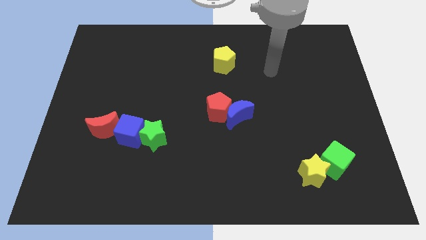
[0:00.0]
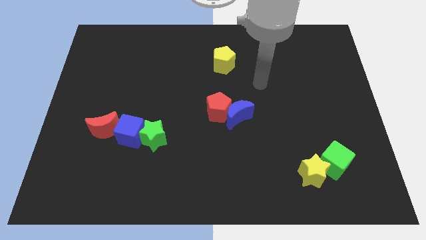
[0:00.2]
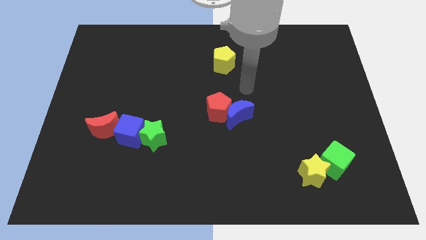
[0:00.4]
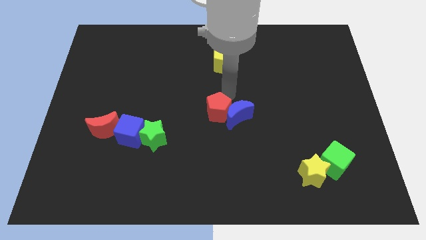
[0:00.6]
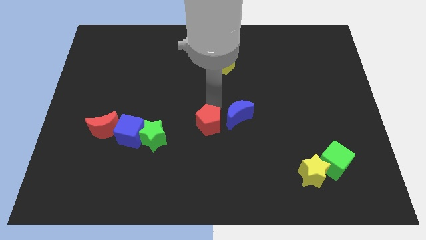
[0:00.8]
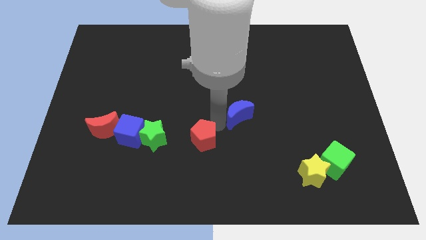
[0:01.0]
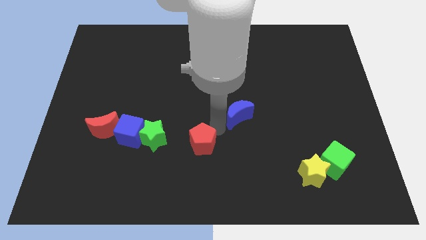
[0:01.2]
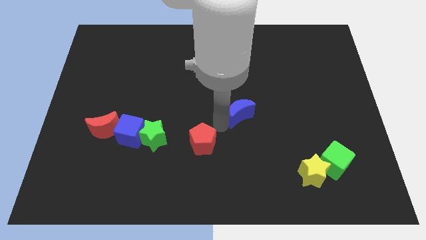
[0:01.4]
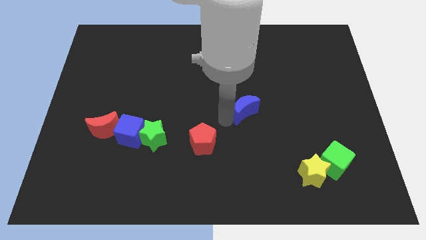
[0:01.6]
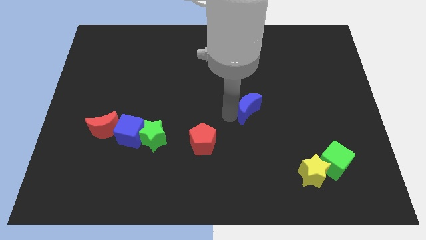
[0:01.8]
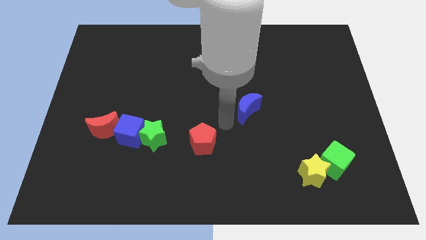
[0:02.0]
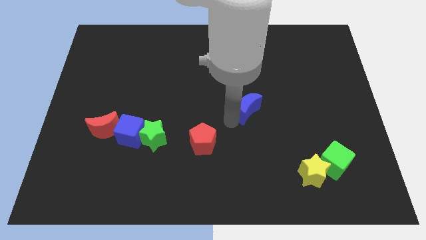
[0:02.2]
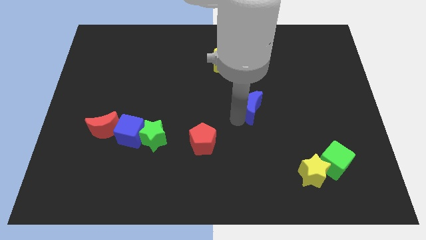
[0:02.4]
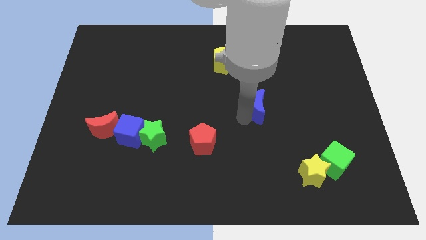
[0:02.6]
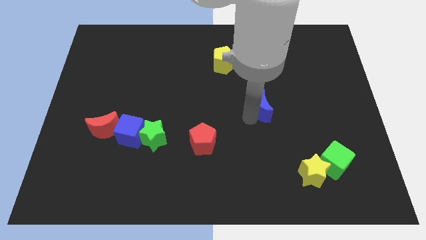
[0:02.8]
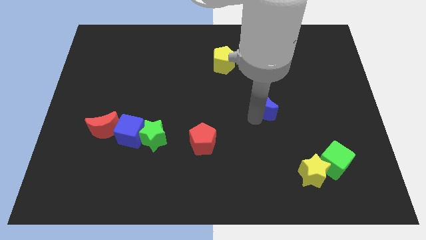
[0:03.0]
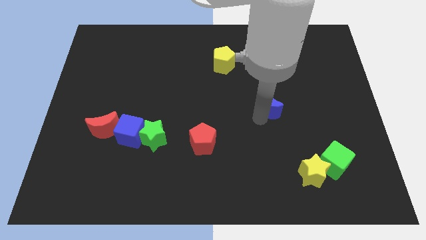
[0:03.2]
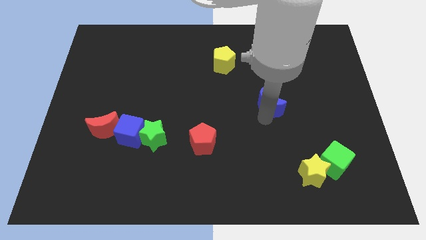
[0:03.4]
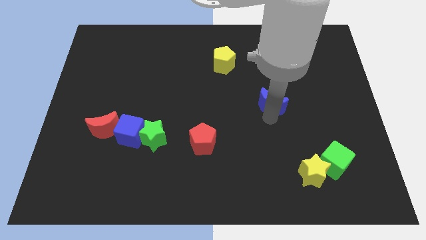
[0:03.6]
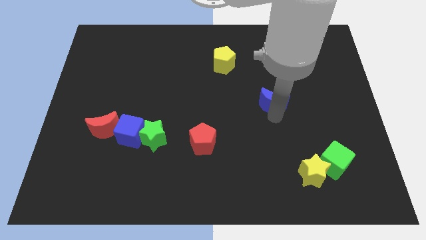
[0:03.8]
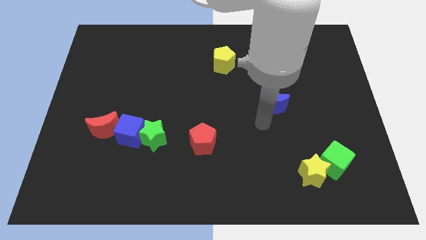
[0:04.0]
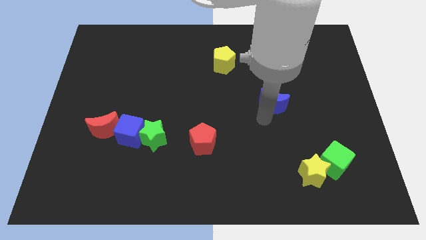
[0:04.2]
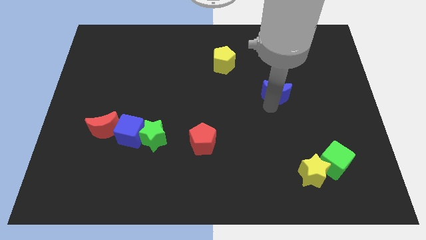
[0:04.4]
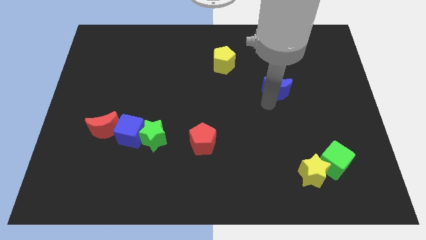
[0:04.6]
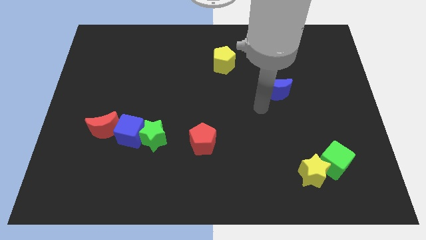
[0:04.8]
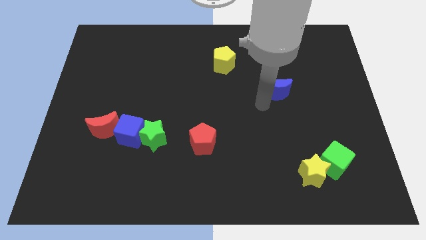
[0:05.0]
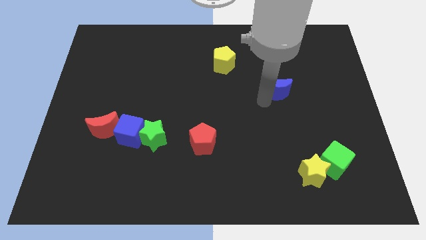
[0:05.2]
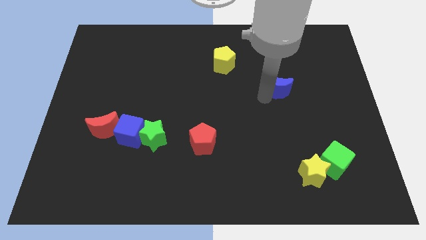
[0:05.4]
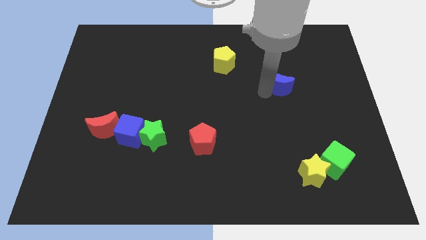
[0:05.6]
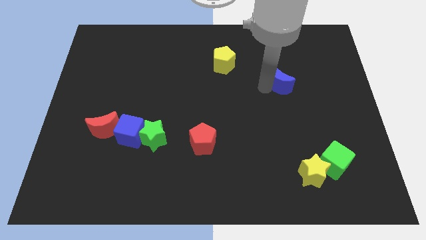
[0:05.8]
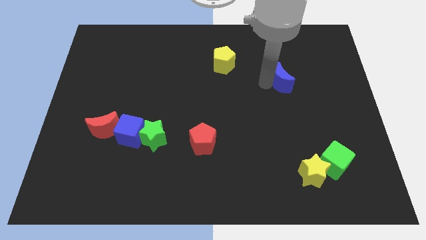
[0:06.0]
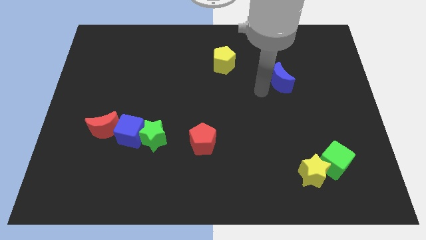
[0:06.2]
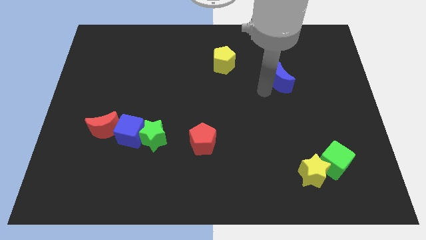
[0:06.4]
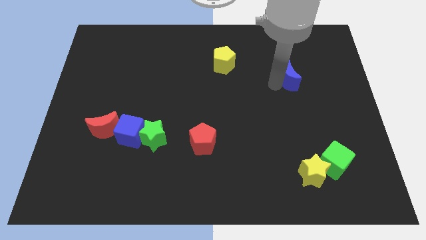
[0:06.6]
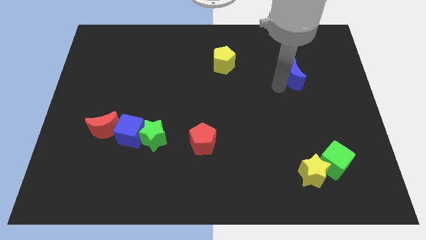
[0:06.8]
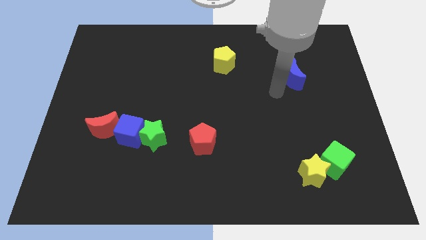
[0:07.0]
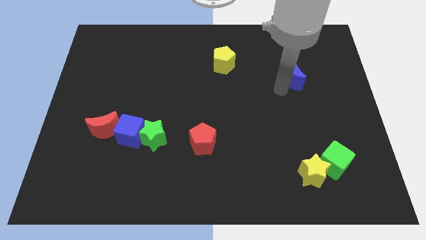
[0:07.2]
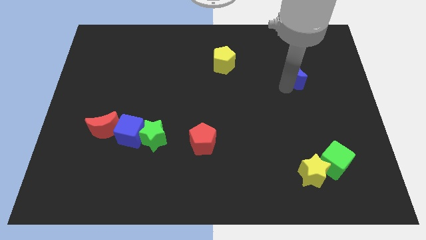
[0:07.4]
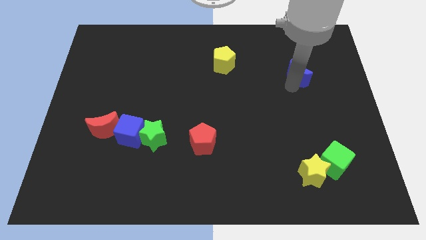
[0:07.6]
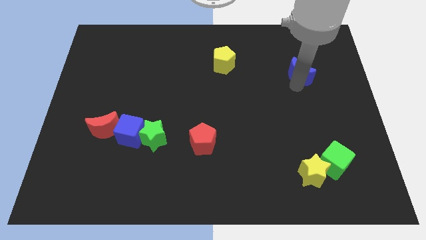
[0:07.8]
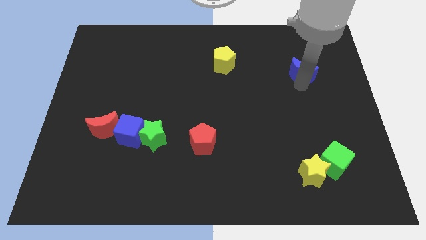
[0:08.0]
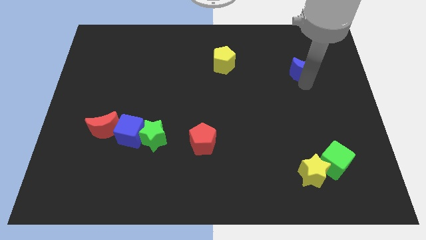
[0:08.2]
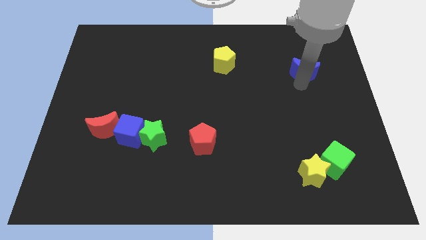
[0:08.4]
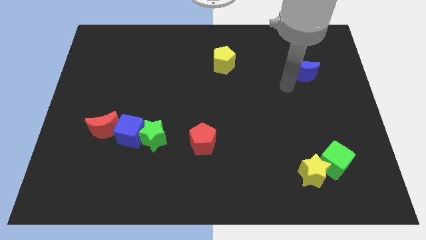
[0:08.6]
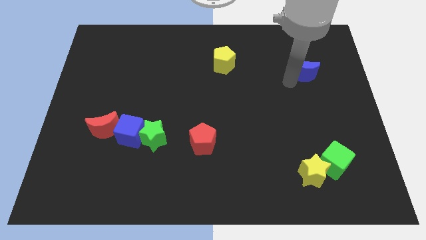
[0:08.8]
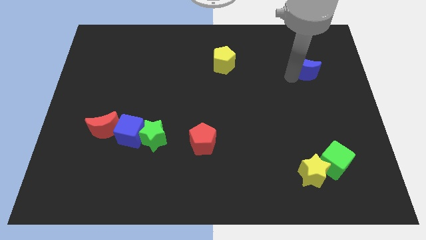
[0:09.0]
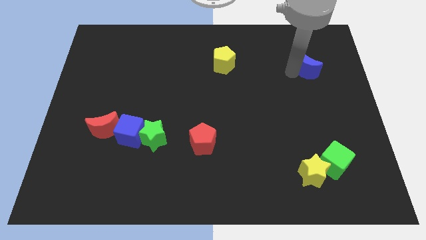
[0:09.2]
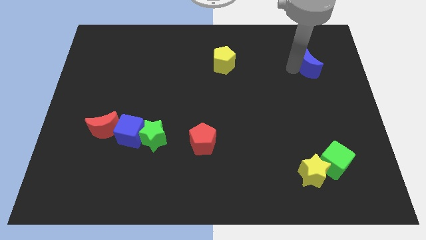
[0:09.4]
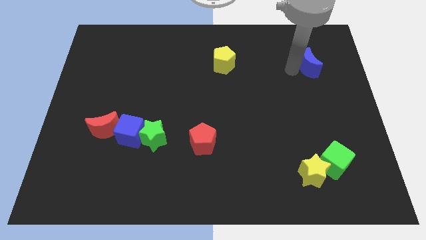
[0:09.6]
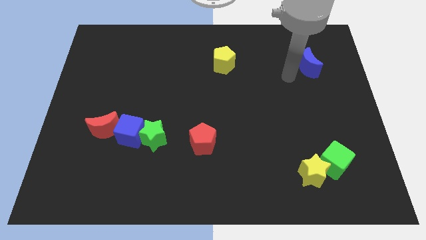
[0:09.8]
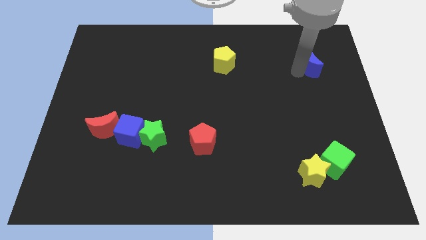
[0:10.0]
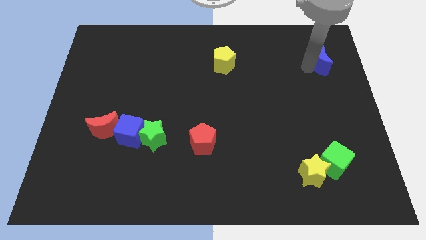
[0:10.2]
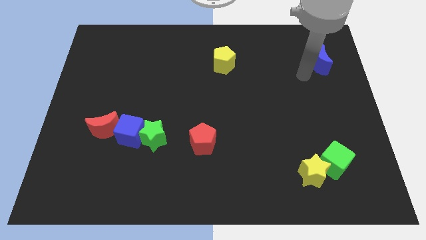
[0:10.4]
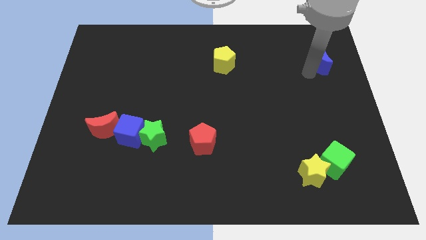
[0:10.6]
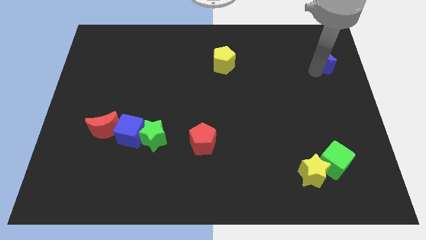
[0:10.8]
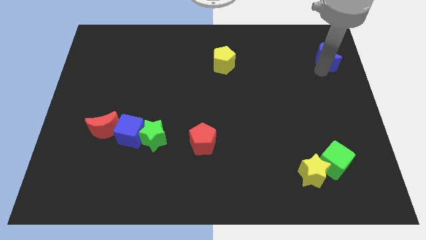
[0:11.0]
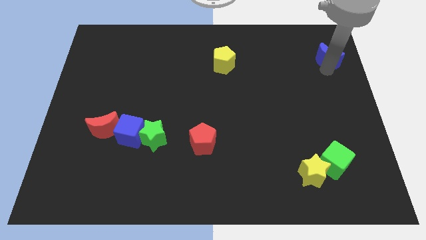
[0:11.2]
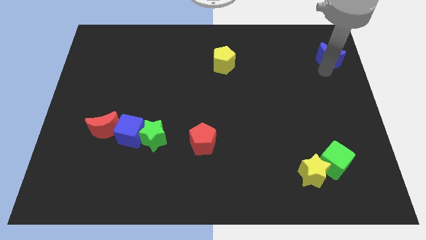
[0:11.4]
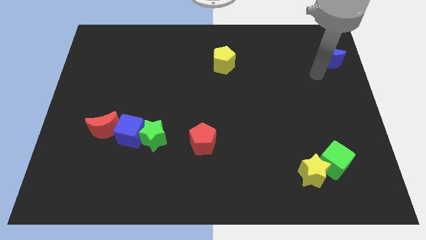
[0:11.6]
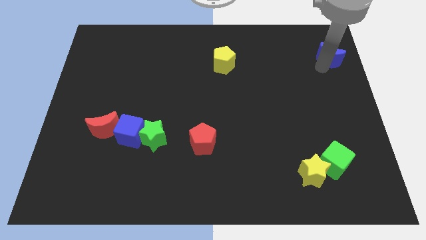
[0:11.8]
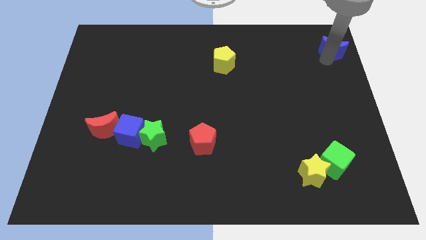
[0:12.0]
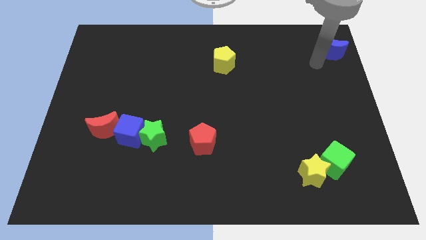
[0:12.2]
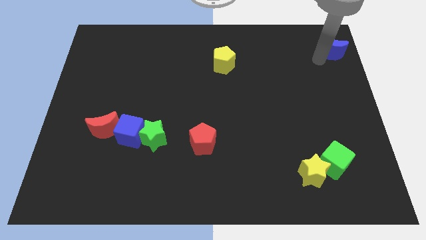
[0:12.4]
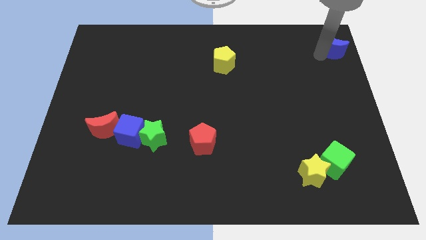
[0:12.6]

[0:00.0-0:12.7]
move the blue moon to the top right corner

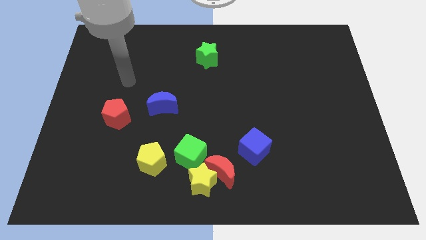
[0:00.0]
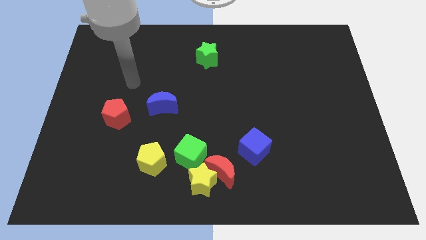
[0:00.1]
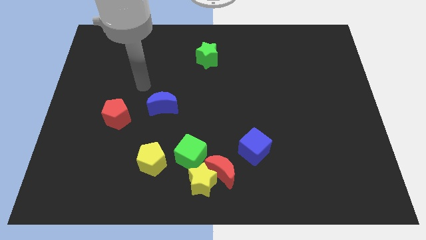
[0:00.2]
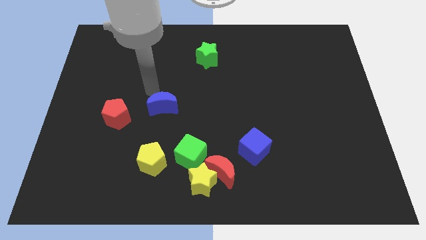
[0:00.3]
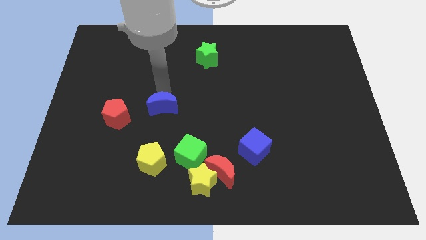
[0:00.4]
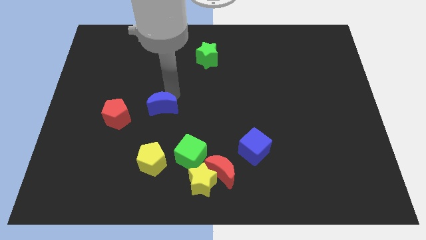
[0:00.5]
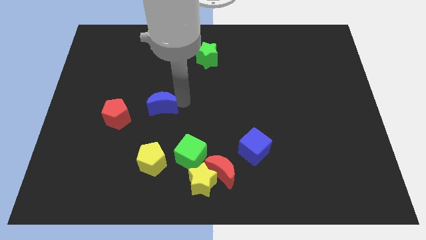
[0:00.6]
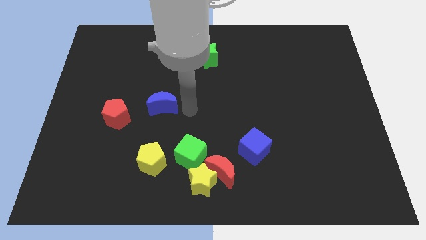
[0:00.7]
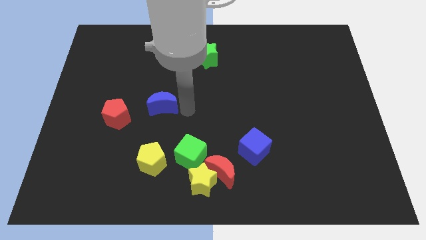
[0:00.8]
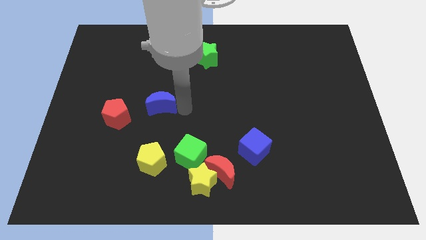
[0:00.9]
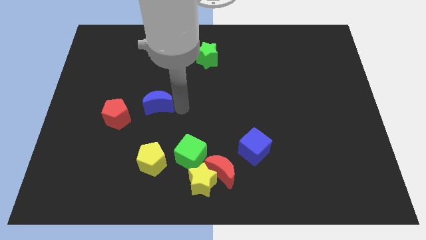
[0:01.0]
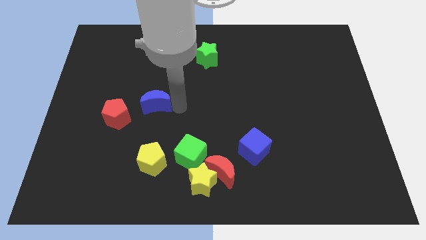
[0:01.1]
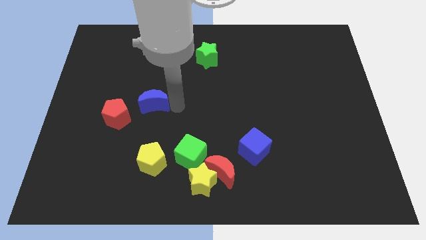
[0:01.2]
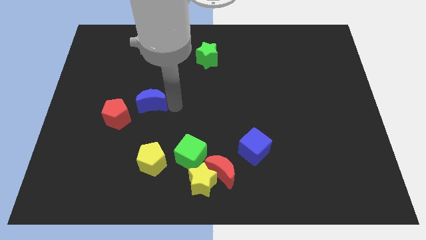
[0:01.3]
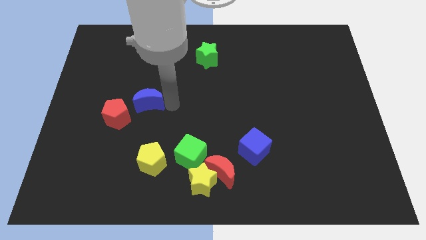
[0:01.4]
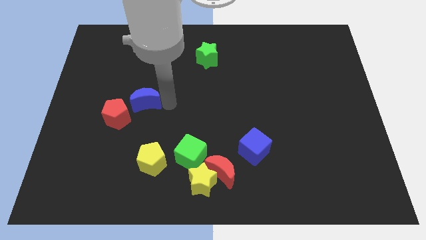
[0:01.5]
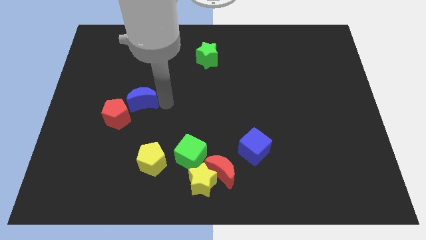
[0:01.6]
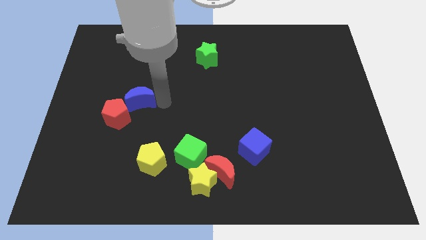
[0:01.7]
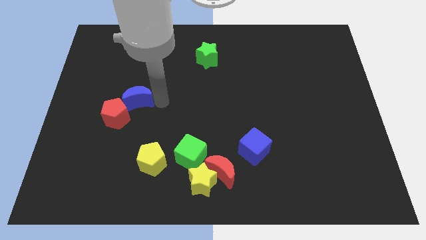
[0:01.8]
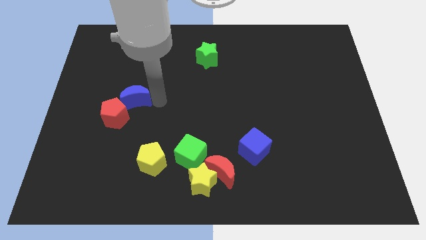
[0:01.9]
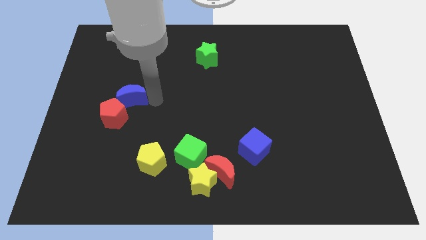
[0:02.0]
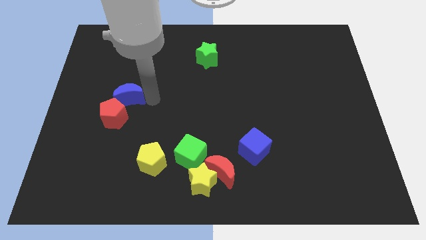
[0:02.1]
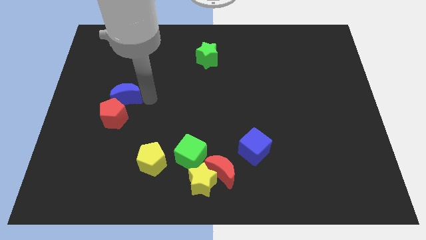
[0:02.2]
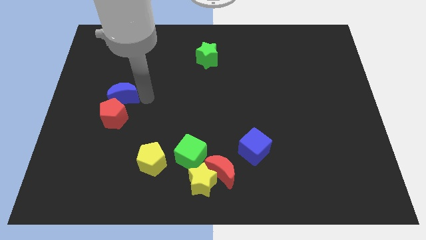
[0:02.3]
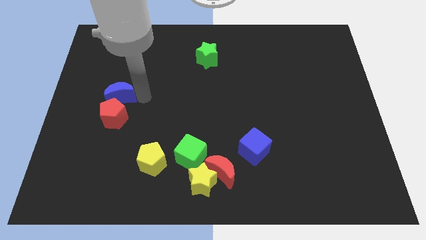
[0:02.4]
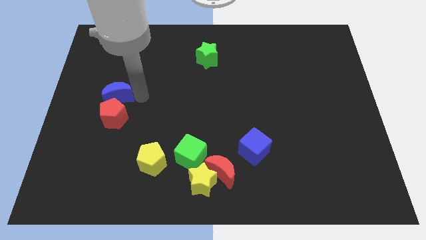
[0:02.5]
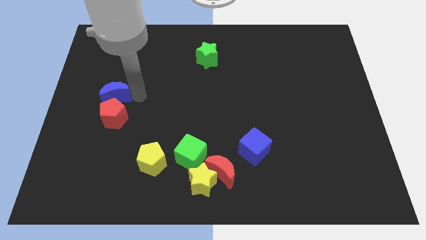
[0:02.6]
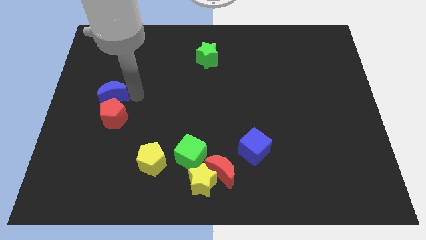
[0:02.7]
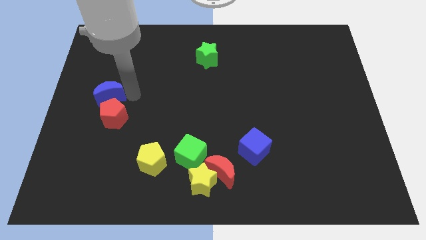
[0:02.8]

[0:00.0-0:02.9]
put the blue moon to the center left
